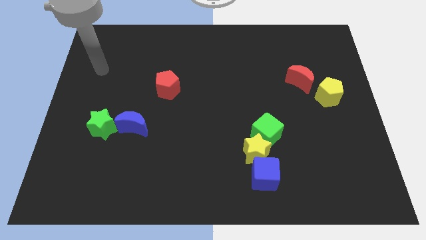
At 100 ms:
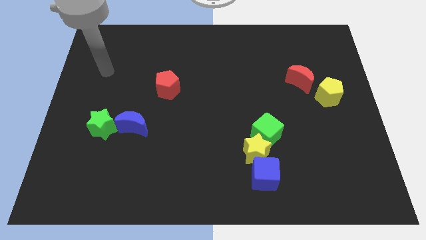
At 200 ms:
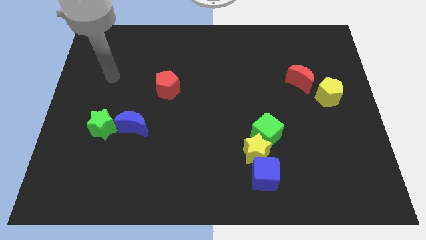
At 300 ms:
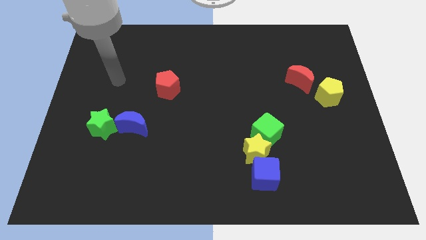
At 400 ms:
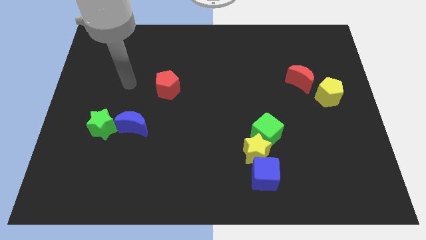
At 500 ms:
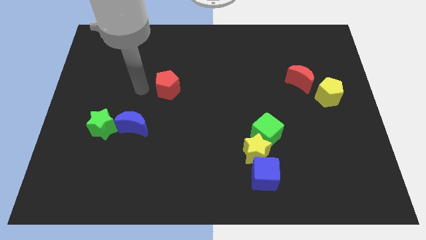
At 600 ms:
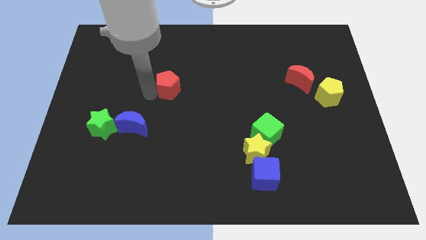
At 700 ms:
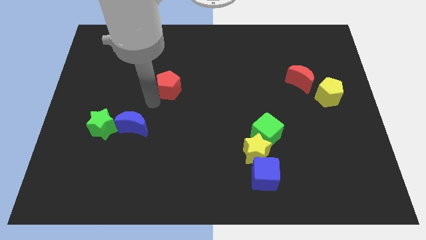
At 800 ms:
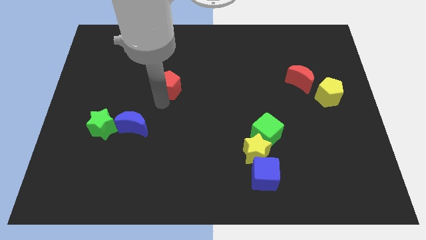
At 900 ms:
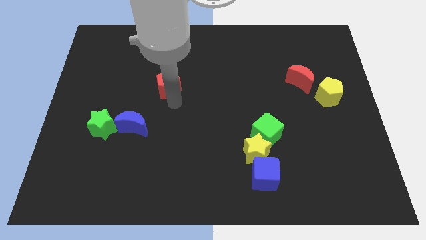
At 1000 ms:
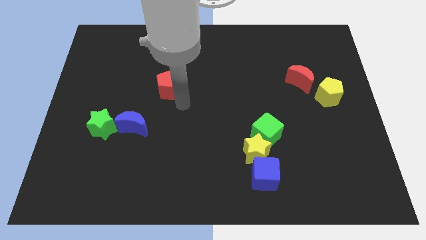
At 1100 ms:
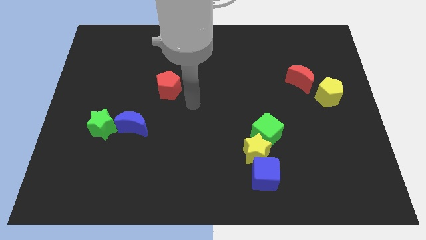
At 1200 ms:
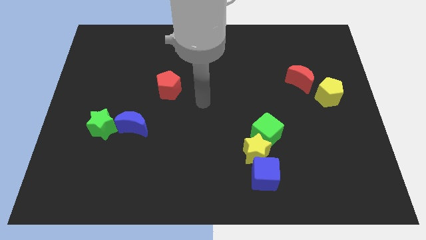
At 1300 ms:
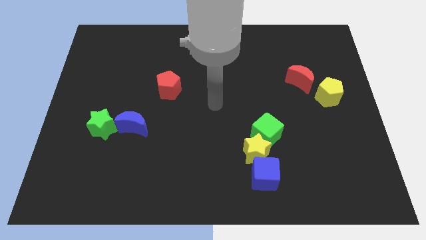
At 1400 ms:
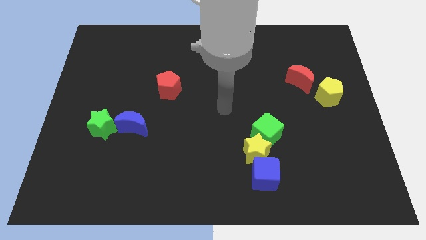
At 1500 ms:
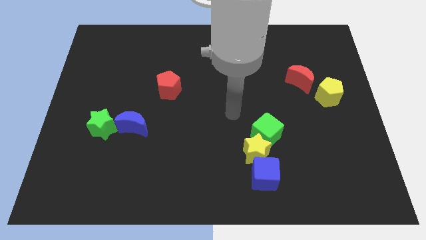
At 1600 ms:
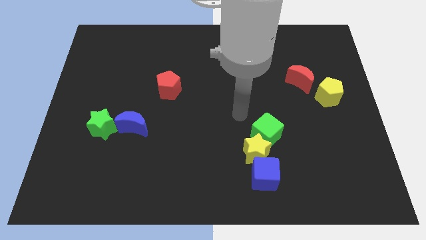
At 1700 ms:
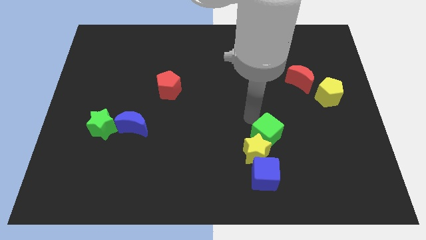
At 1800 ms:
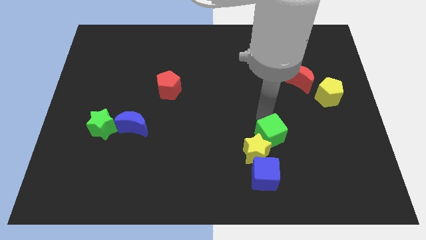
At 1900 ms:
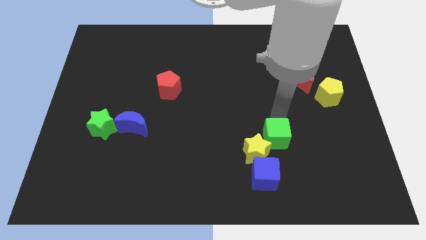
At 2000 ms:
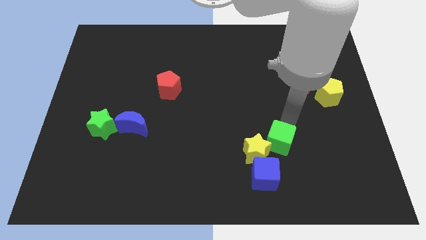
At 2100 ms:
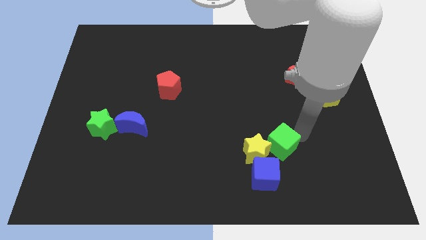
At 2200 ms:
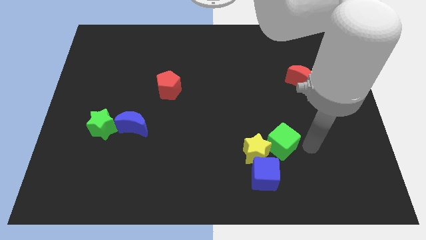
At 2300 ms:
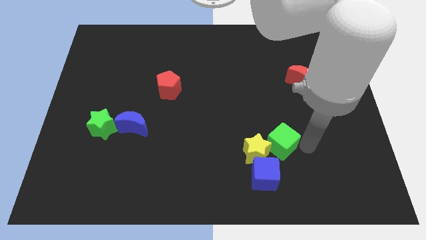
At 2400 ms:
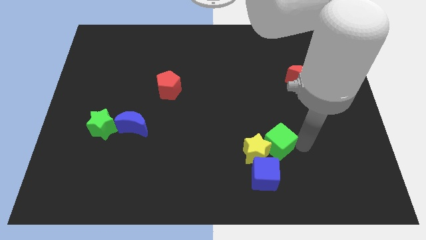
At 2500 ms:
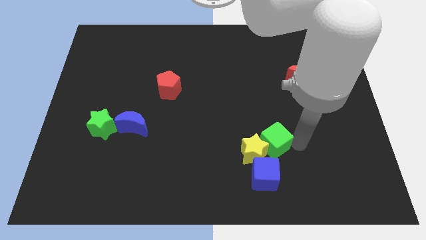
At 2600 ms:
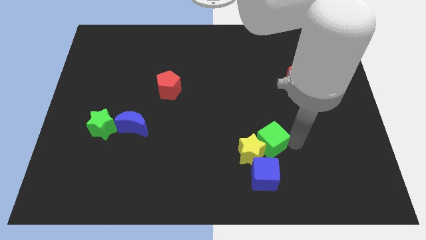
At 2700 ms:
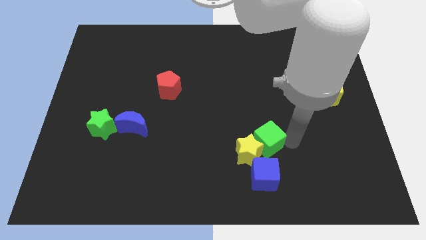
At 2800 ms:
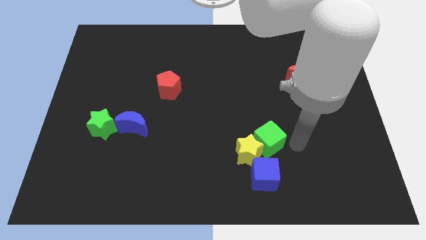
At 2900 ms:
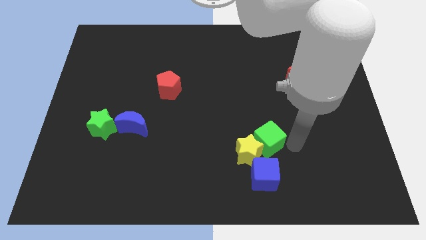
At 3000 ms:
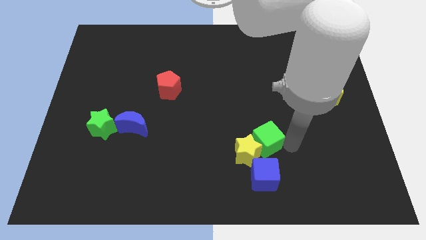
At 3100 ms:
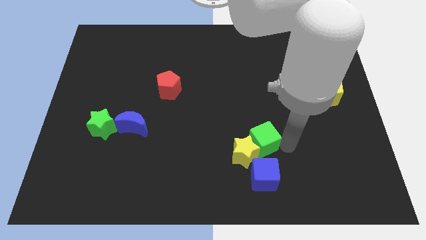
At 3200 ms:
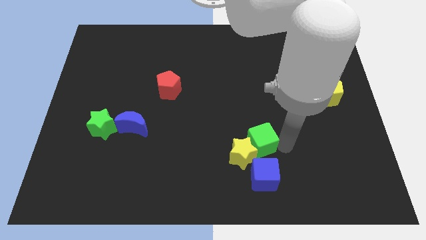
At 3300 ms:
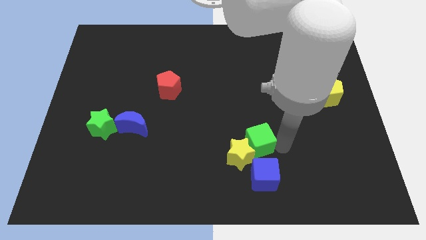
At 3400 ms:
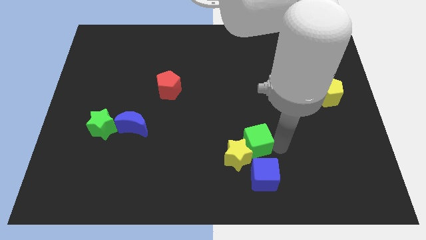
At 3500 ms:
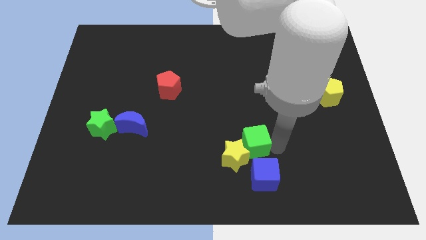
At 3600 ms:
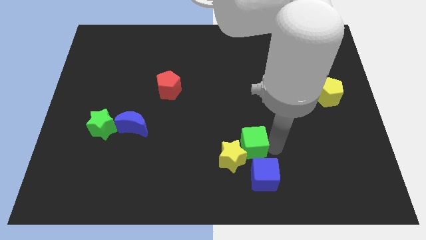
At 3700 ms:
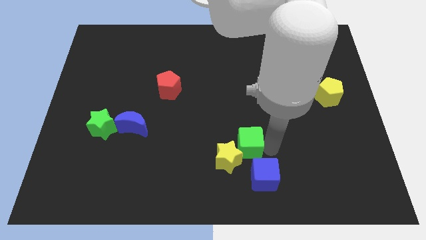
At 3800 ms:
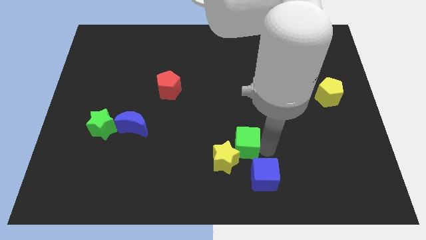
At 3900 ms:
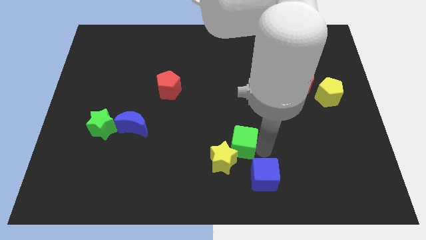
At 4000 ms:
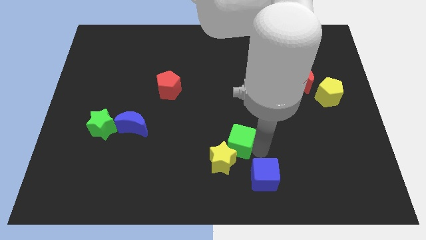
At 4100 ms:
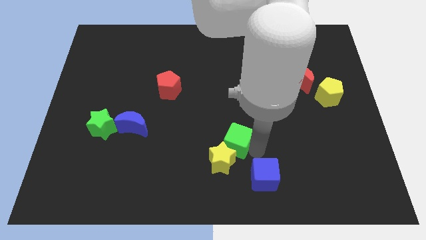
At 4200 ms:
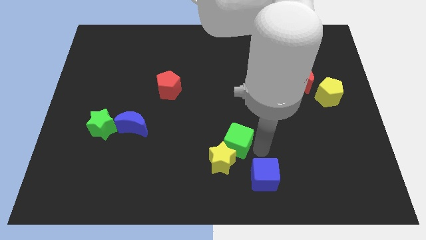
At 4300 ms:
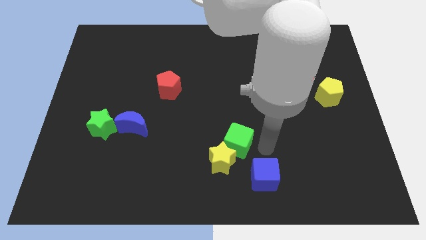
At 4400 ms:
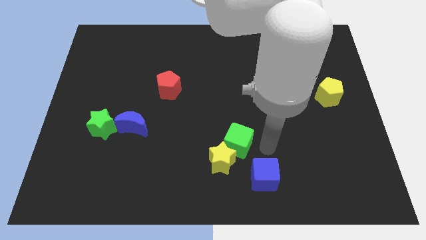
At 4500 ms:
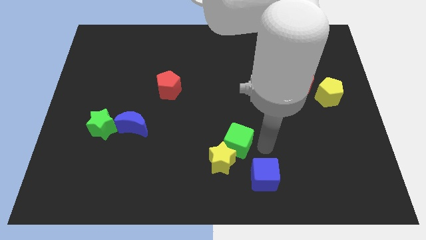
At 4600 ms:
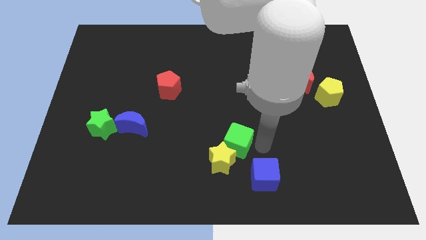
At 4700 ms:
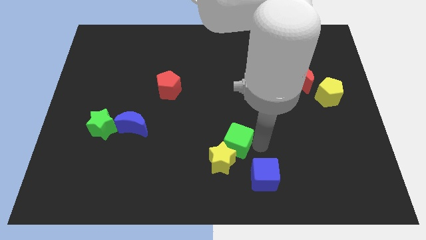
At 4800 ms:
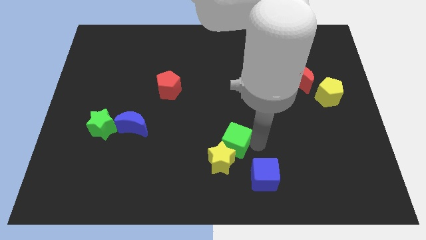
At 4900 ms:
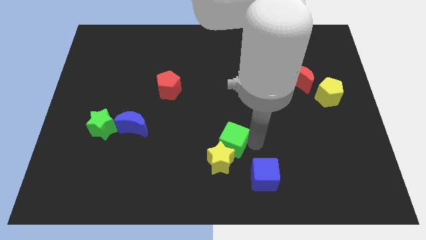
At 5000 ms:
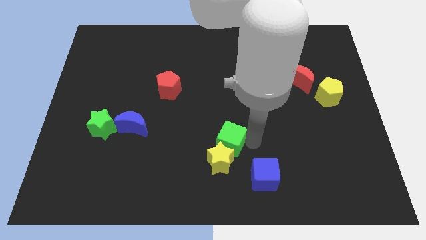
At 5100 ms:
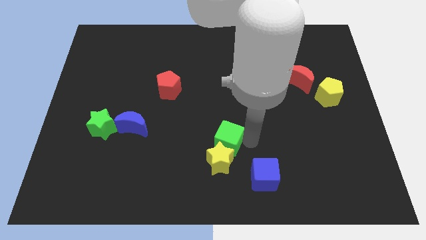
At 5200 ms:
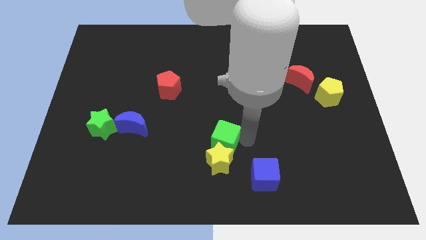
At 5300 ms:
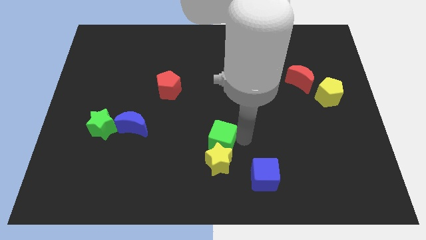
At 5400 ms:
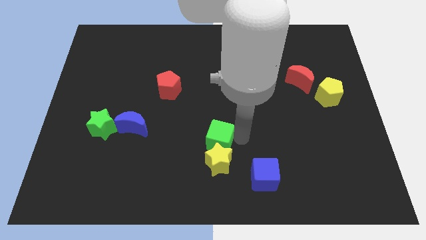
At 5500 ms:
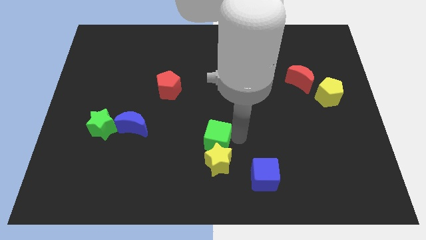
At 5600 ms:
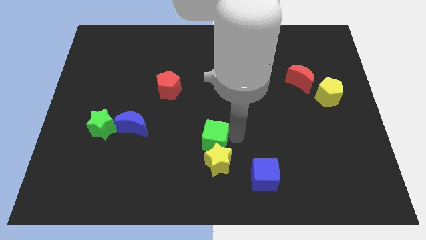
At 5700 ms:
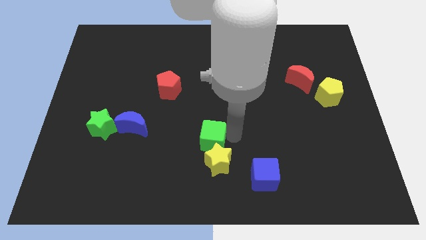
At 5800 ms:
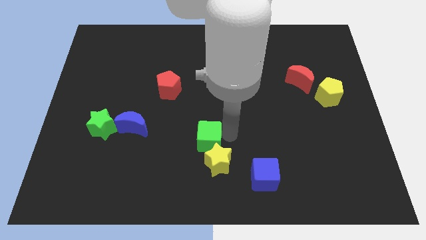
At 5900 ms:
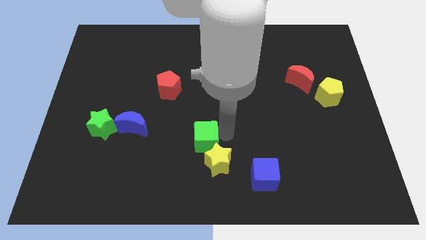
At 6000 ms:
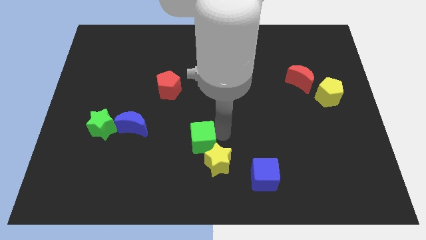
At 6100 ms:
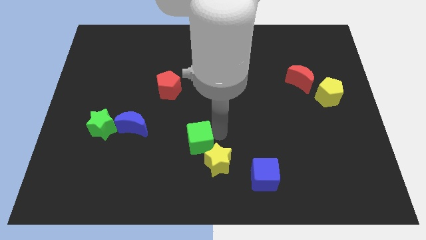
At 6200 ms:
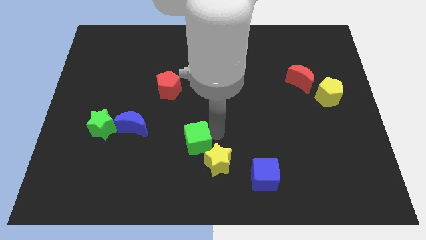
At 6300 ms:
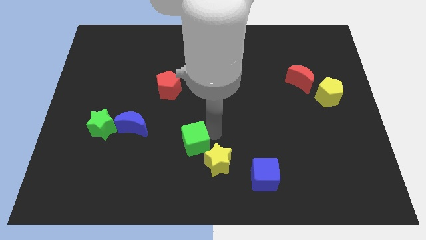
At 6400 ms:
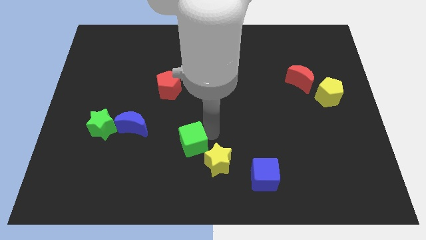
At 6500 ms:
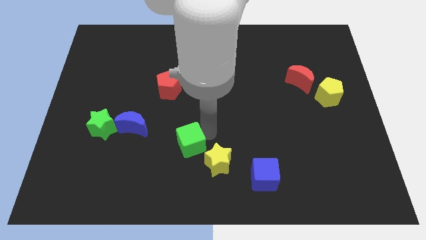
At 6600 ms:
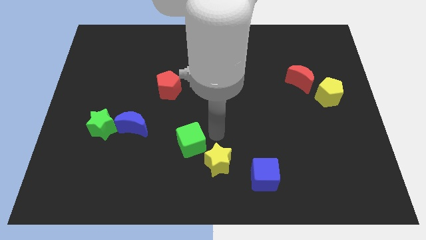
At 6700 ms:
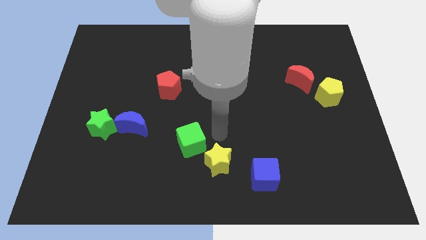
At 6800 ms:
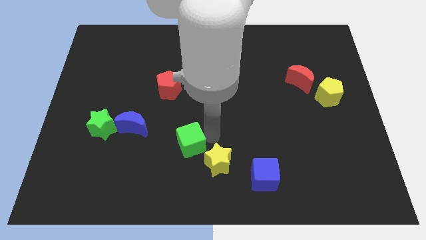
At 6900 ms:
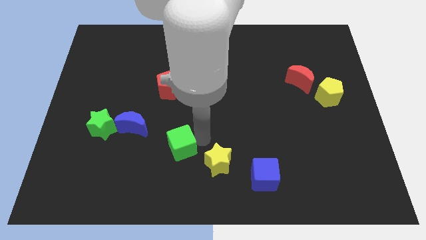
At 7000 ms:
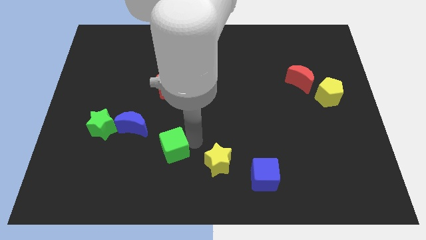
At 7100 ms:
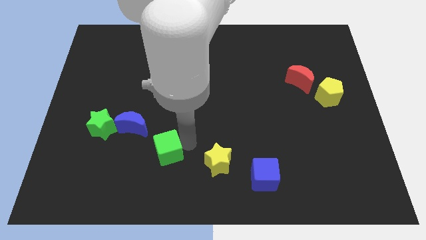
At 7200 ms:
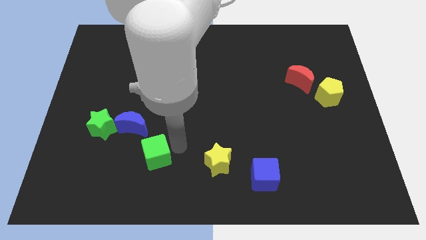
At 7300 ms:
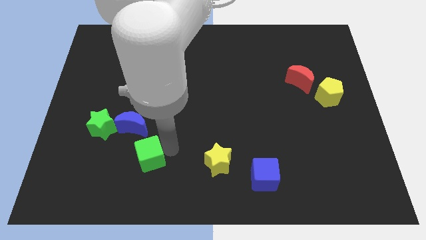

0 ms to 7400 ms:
push the green cube to the bottom side of the blue moon
